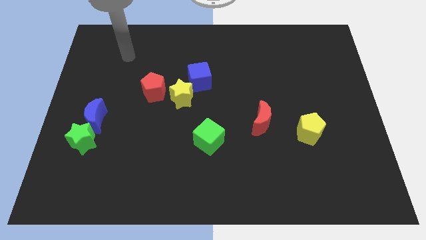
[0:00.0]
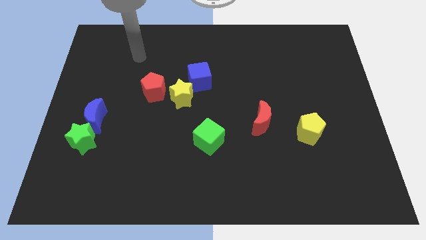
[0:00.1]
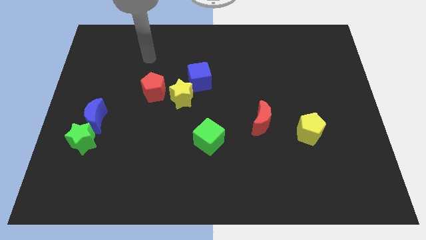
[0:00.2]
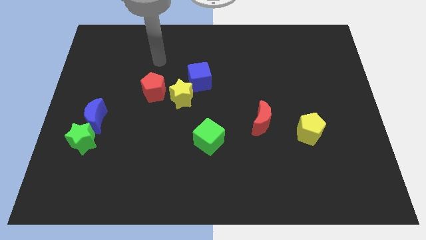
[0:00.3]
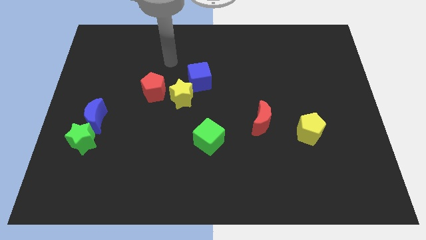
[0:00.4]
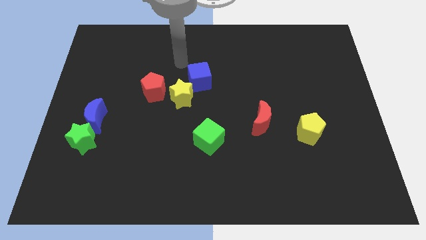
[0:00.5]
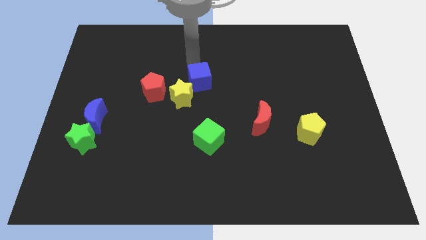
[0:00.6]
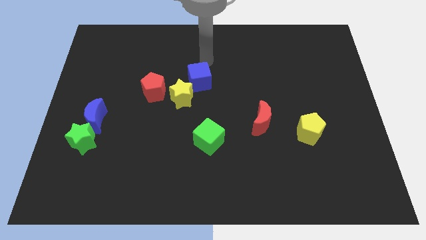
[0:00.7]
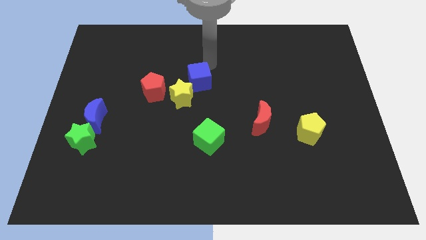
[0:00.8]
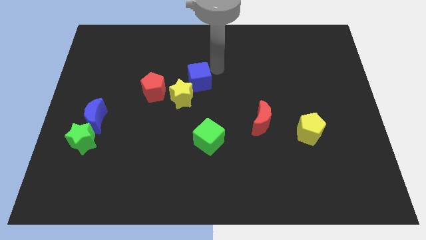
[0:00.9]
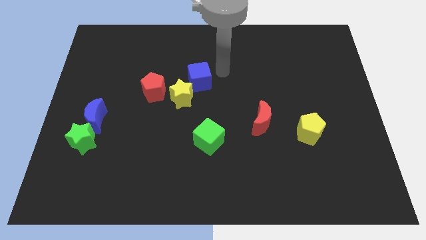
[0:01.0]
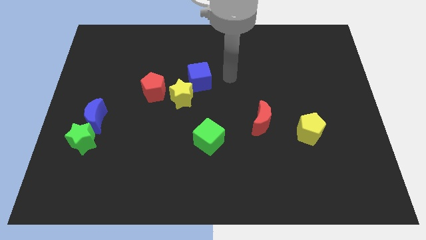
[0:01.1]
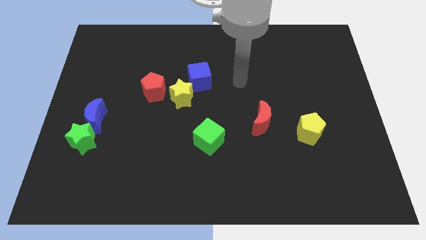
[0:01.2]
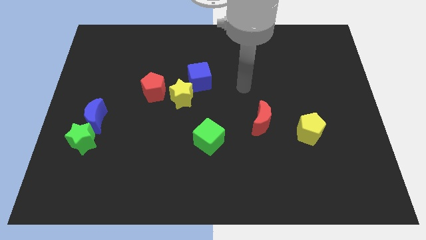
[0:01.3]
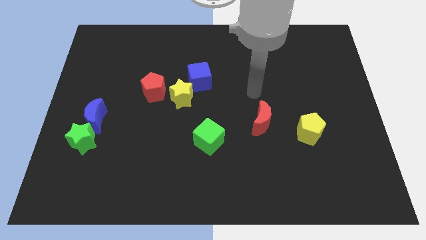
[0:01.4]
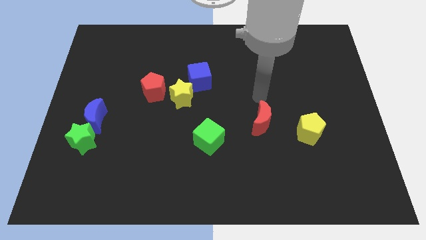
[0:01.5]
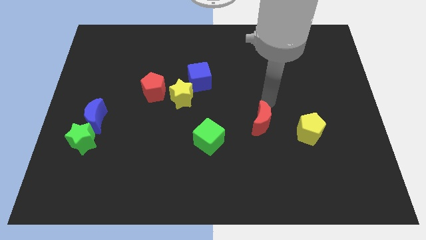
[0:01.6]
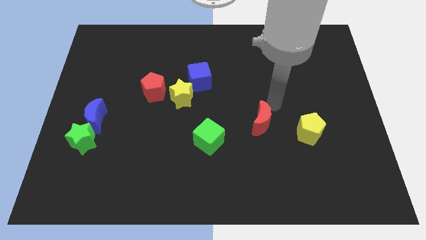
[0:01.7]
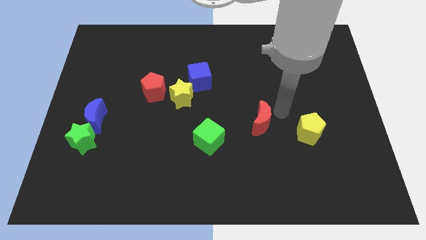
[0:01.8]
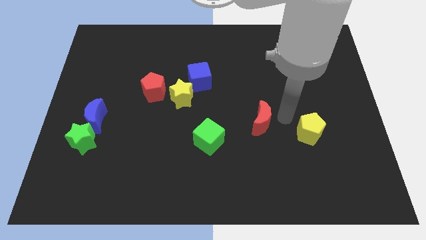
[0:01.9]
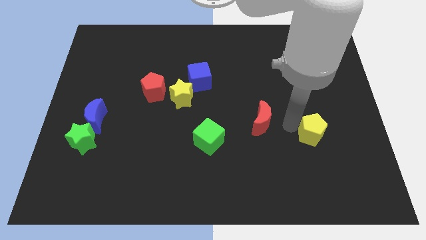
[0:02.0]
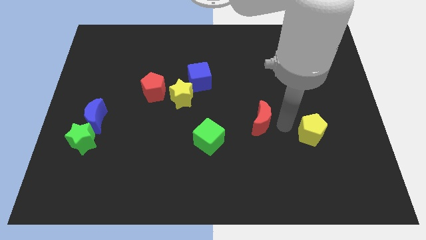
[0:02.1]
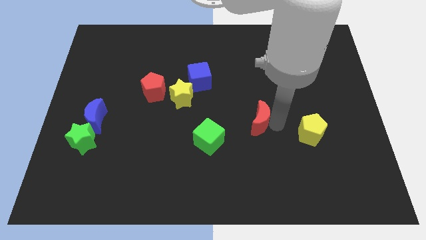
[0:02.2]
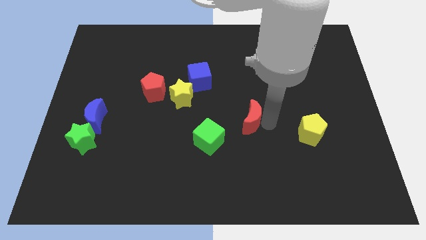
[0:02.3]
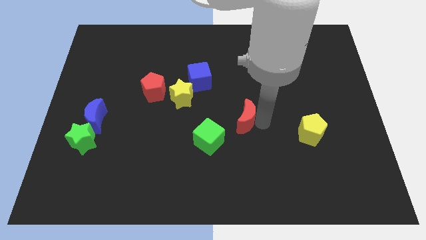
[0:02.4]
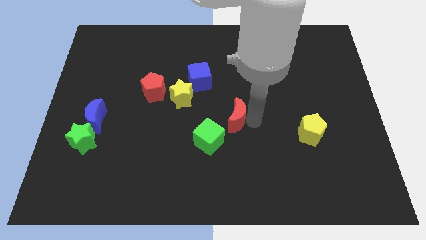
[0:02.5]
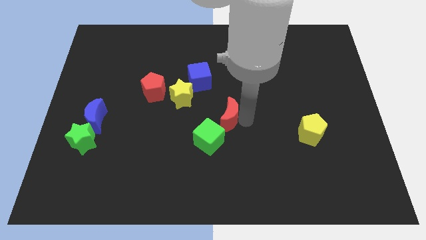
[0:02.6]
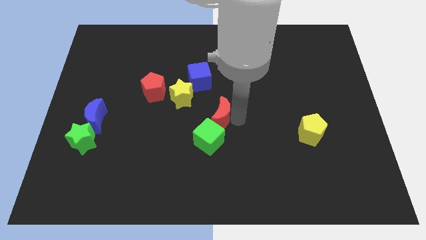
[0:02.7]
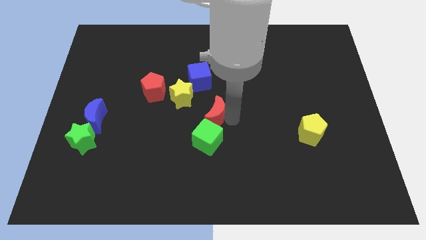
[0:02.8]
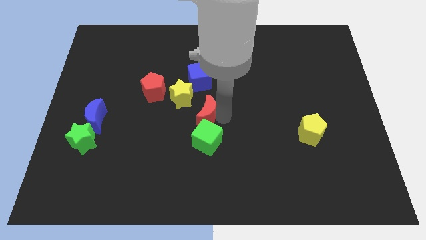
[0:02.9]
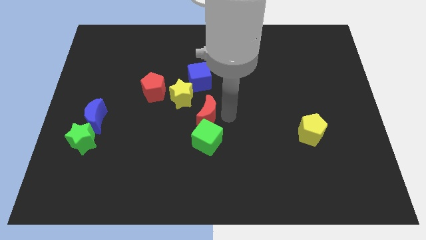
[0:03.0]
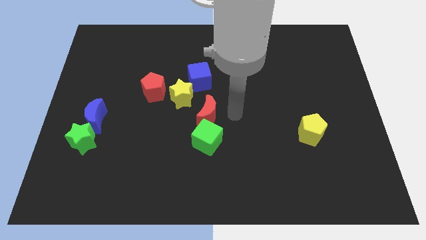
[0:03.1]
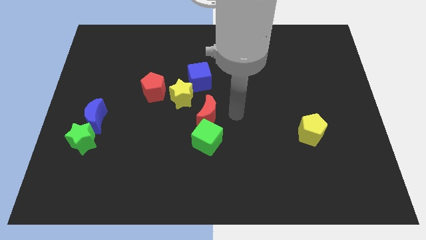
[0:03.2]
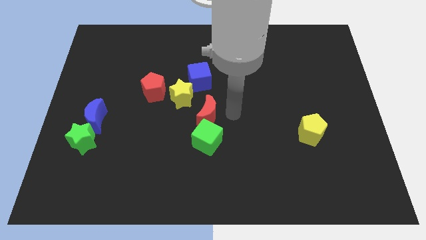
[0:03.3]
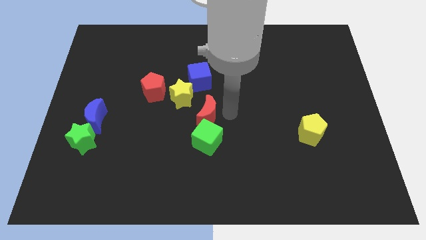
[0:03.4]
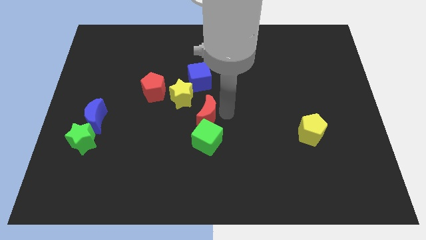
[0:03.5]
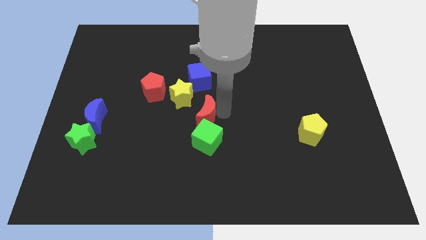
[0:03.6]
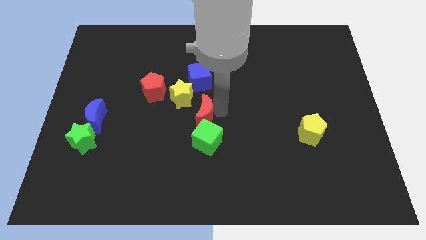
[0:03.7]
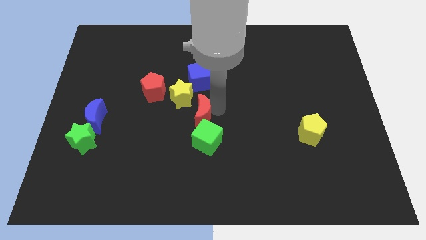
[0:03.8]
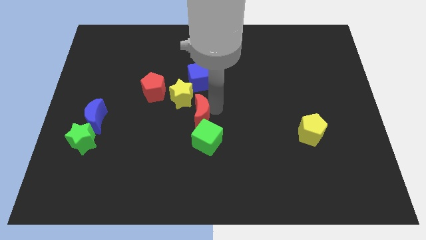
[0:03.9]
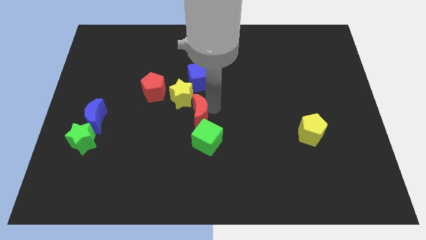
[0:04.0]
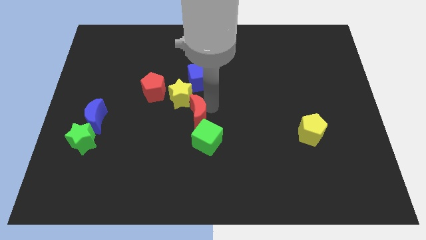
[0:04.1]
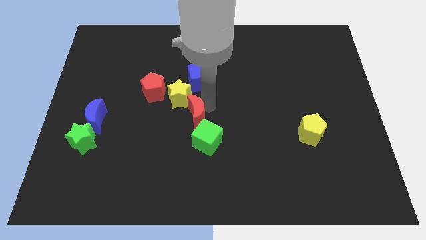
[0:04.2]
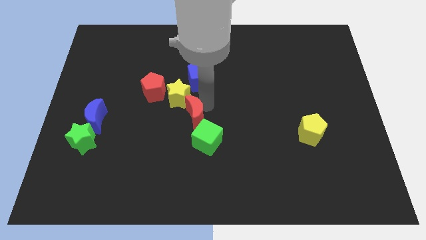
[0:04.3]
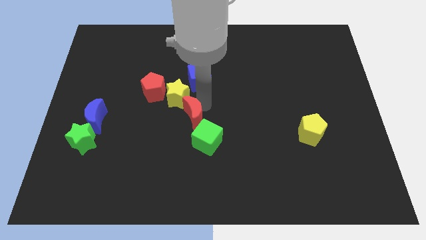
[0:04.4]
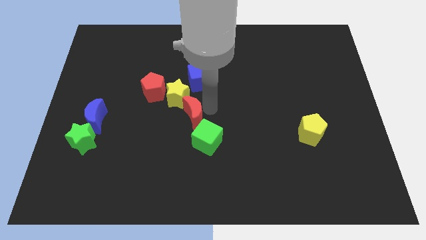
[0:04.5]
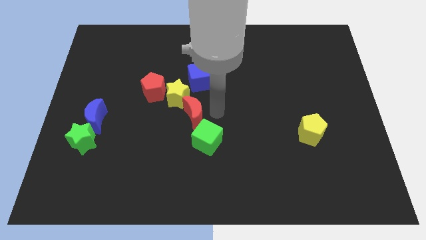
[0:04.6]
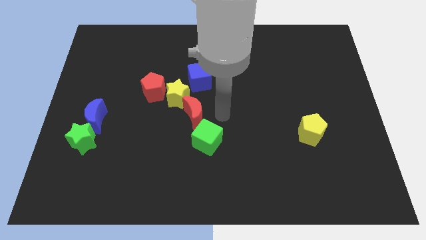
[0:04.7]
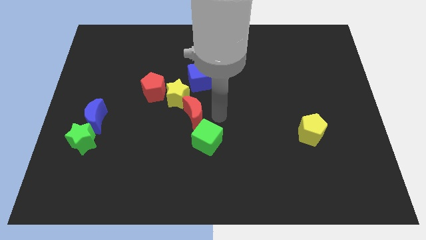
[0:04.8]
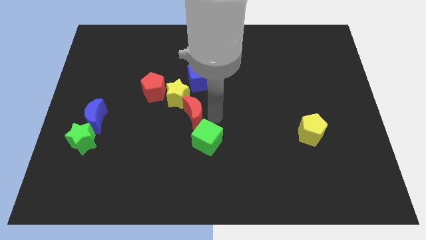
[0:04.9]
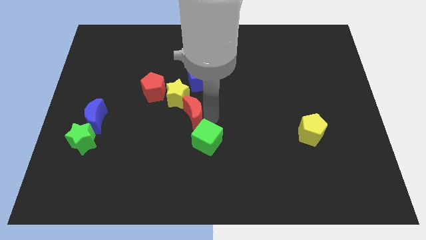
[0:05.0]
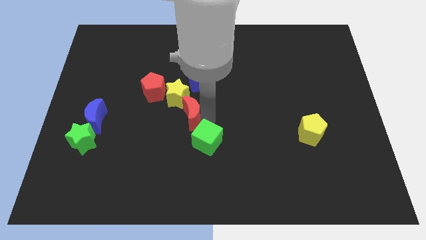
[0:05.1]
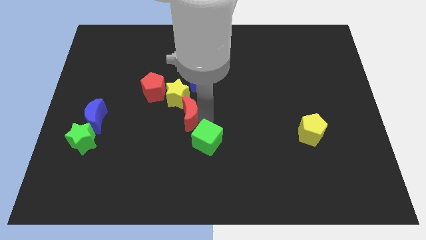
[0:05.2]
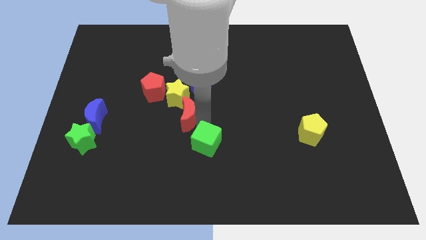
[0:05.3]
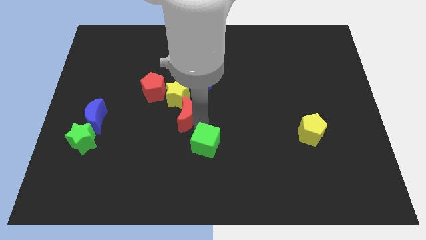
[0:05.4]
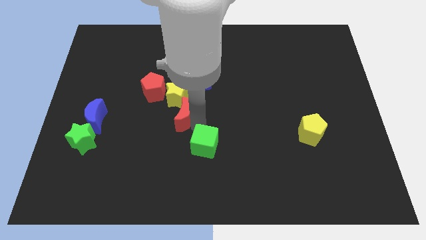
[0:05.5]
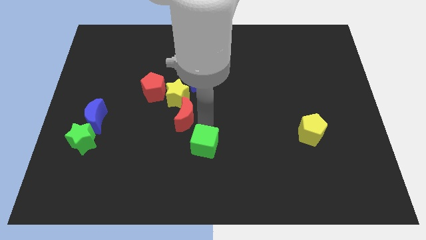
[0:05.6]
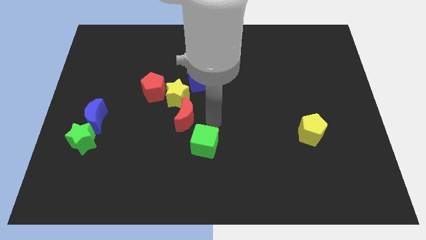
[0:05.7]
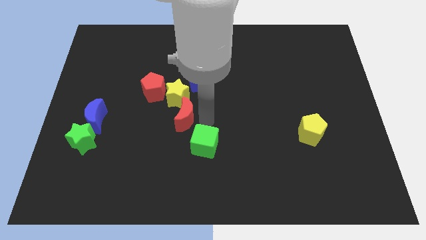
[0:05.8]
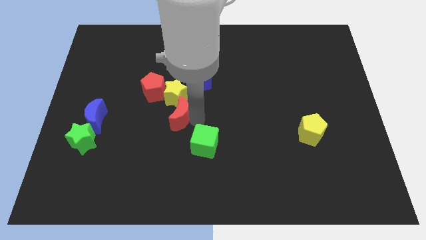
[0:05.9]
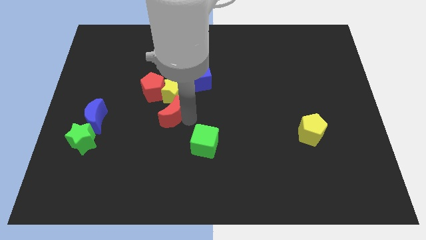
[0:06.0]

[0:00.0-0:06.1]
put the red moon to the bottom left of the yellow star

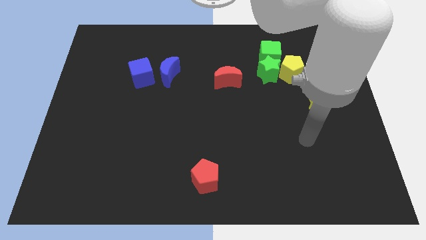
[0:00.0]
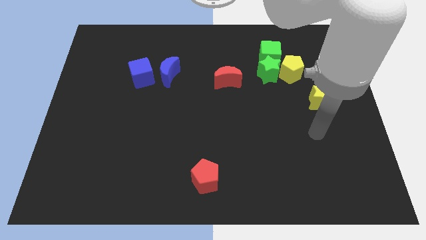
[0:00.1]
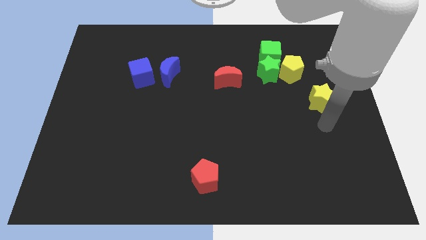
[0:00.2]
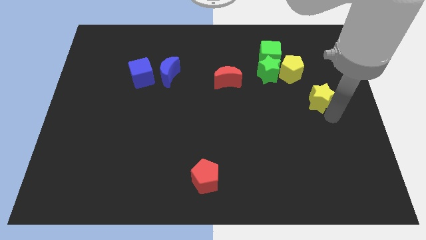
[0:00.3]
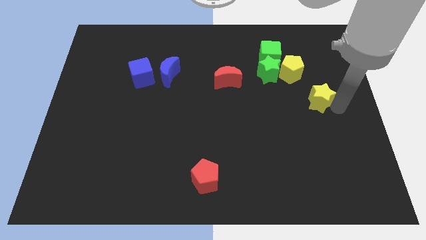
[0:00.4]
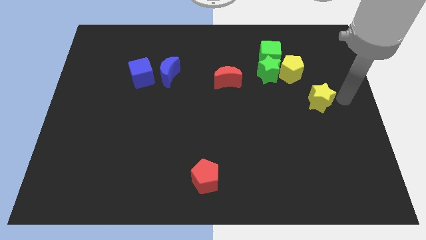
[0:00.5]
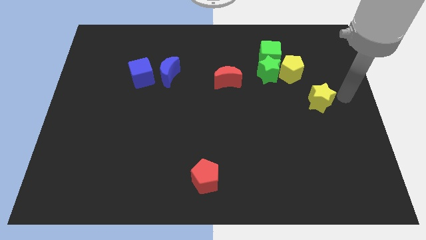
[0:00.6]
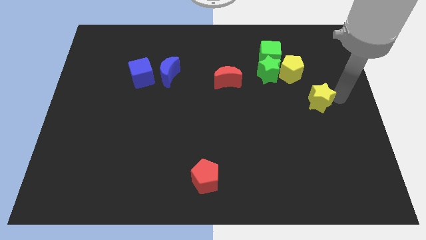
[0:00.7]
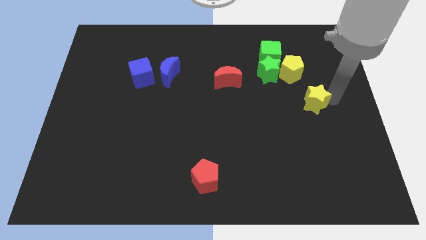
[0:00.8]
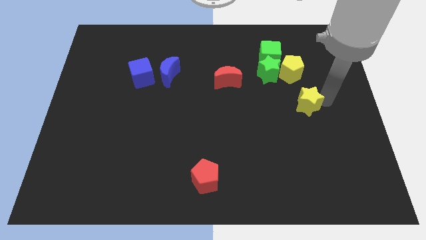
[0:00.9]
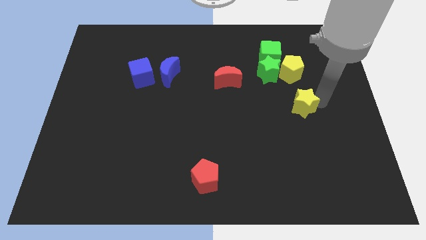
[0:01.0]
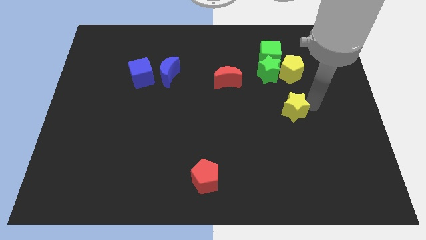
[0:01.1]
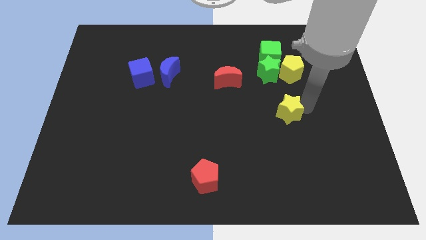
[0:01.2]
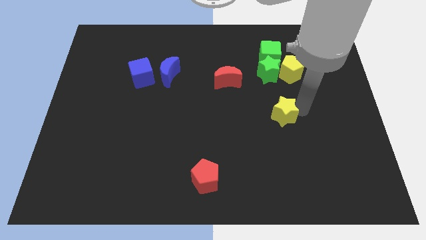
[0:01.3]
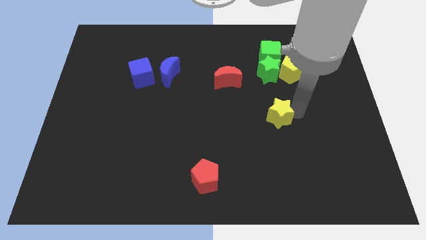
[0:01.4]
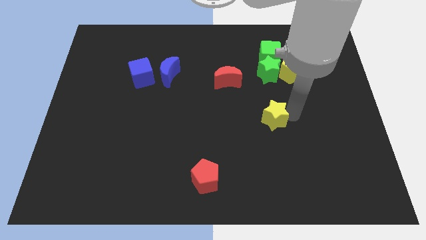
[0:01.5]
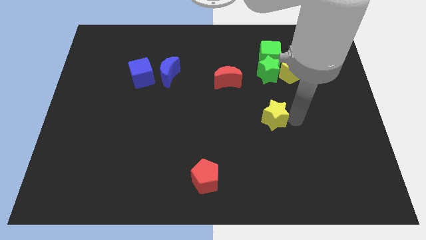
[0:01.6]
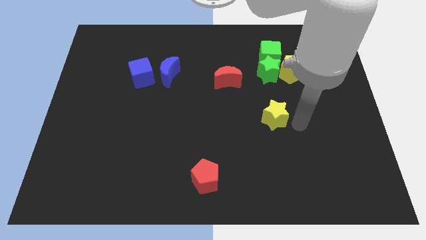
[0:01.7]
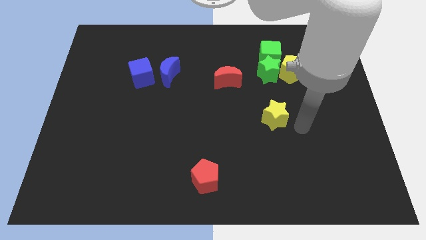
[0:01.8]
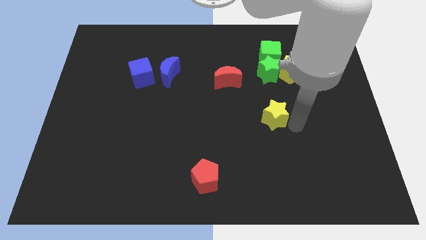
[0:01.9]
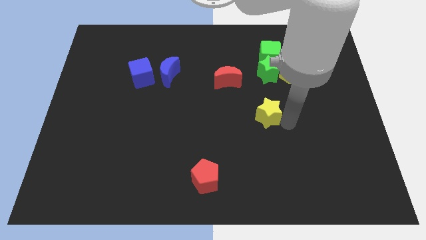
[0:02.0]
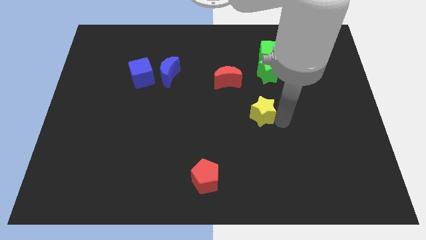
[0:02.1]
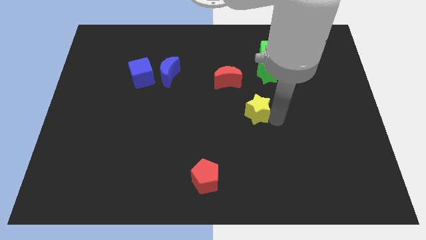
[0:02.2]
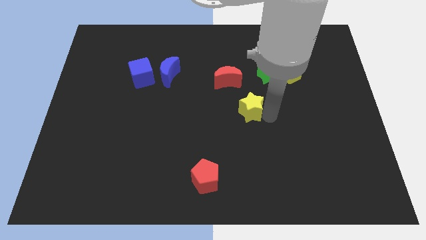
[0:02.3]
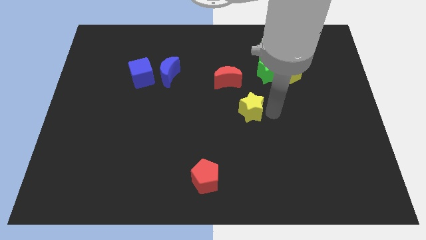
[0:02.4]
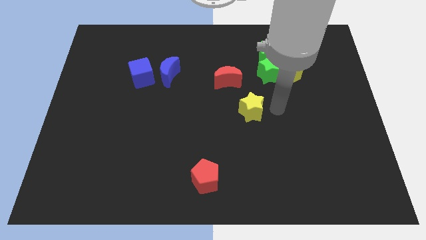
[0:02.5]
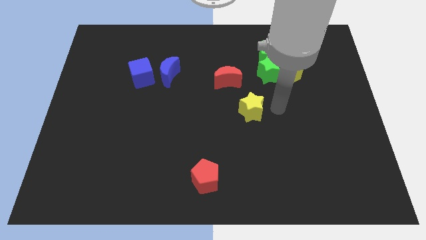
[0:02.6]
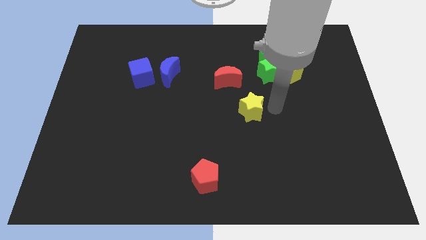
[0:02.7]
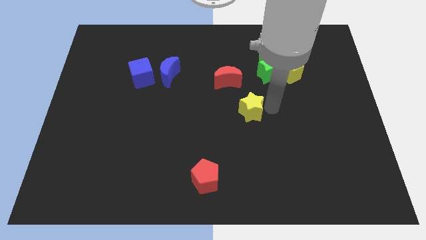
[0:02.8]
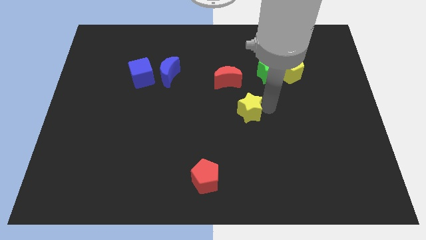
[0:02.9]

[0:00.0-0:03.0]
put the yellow star below the red moon
